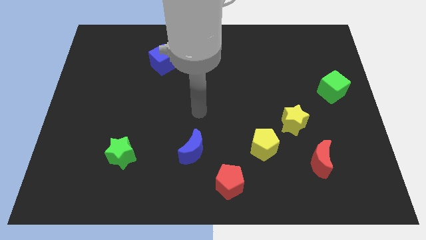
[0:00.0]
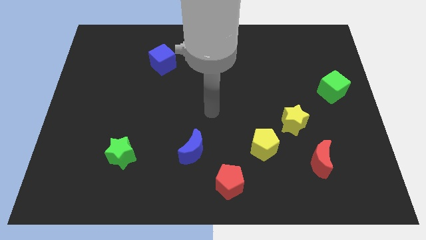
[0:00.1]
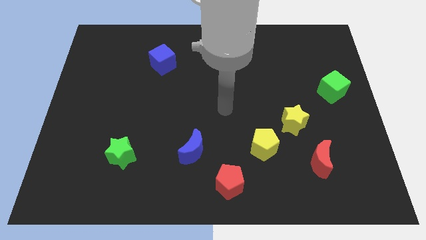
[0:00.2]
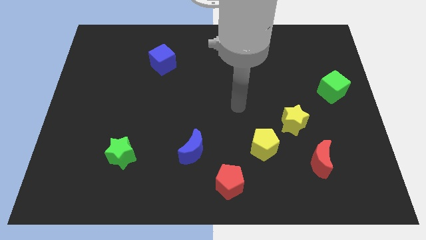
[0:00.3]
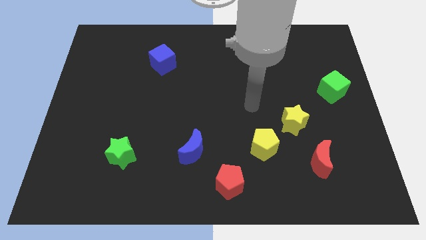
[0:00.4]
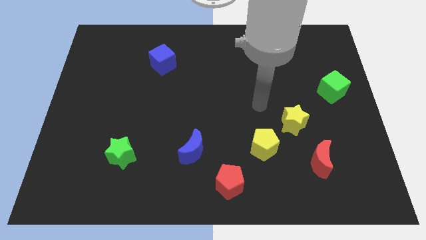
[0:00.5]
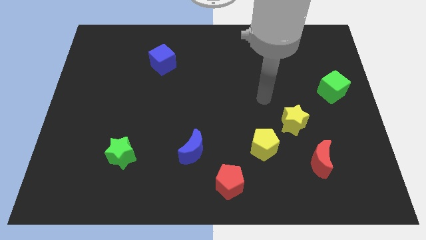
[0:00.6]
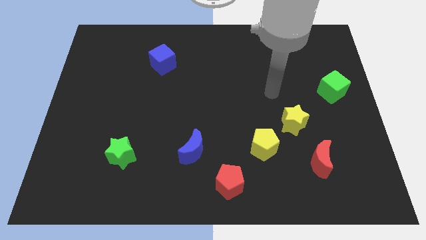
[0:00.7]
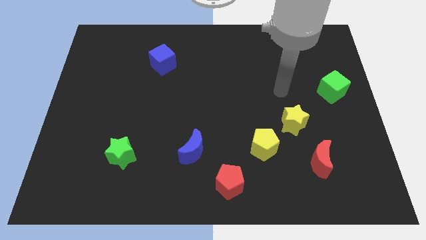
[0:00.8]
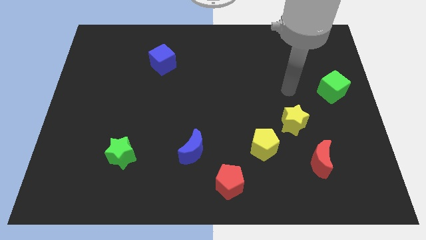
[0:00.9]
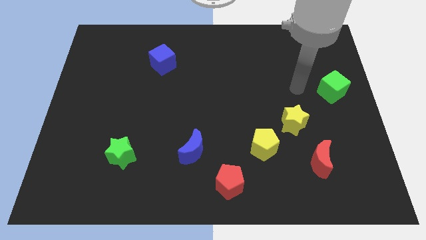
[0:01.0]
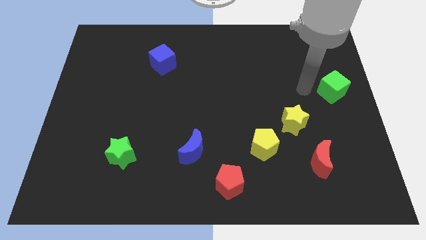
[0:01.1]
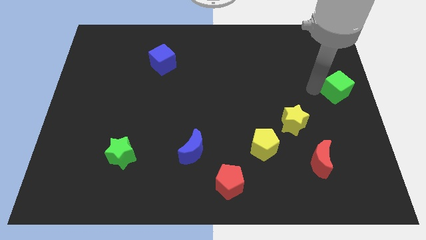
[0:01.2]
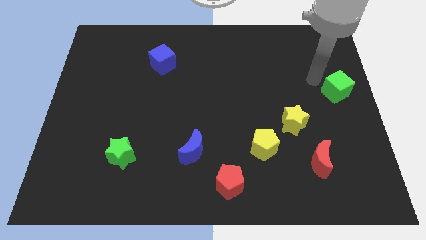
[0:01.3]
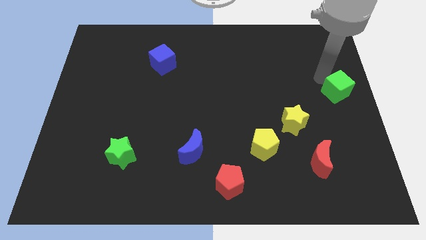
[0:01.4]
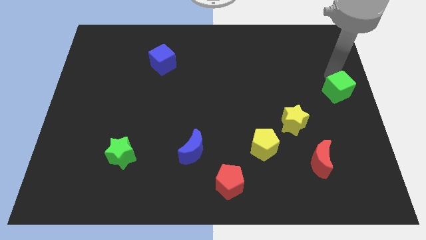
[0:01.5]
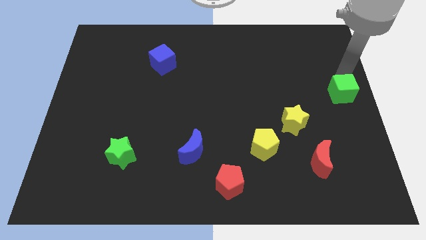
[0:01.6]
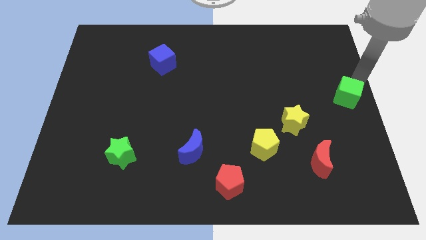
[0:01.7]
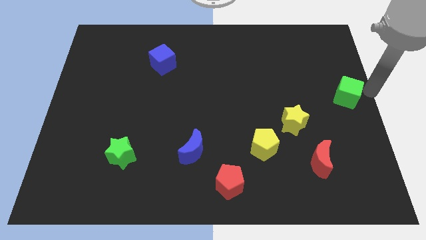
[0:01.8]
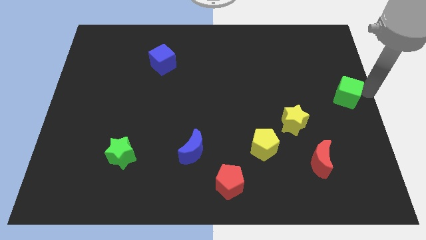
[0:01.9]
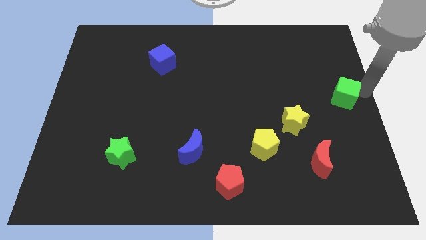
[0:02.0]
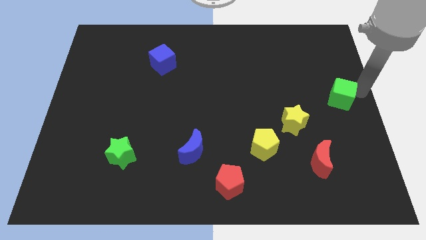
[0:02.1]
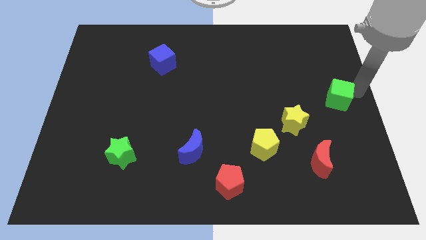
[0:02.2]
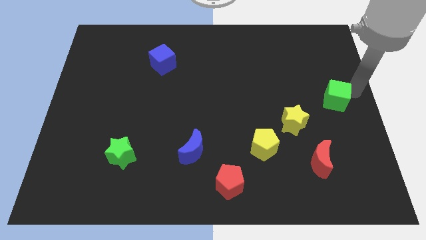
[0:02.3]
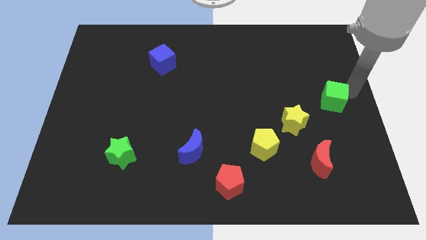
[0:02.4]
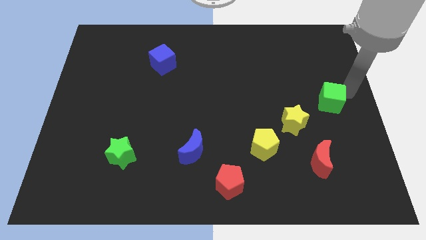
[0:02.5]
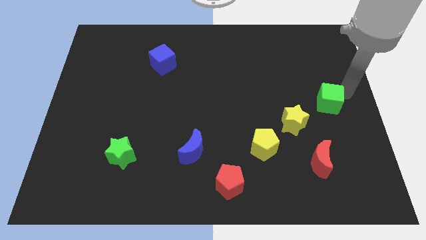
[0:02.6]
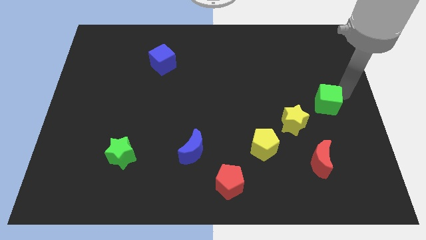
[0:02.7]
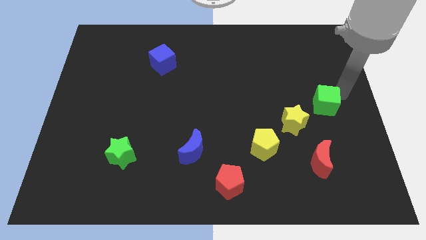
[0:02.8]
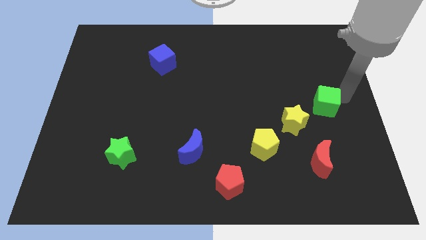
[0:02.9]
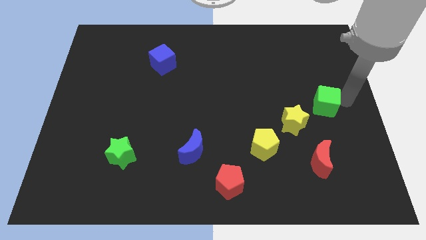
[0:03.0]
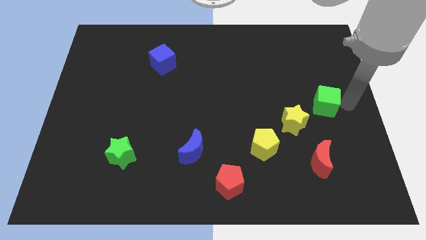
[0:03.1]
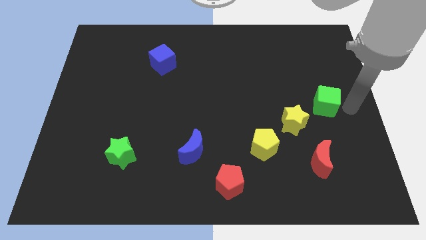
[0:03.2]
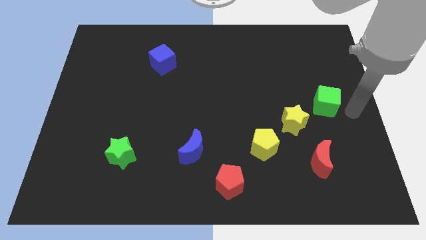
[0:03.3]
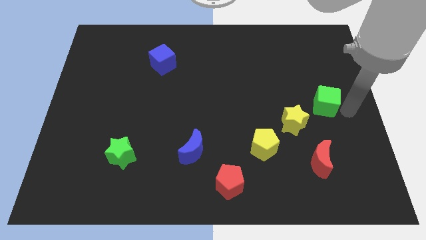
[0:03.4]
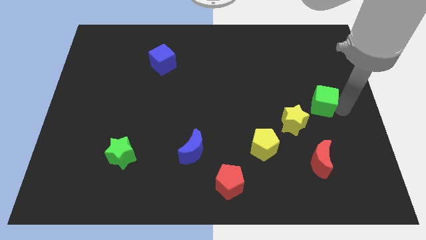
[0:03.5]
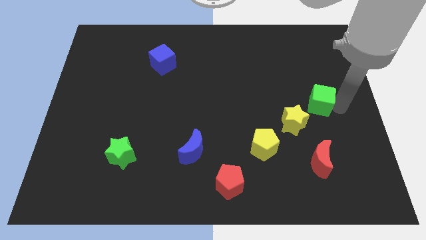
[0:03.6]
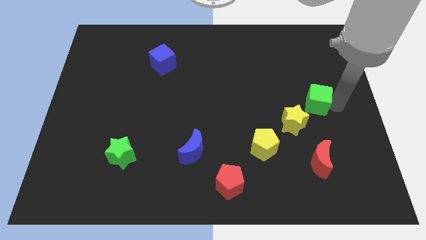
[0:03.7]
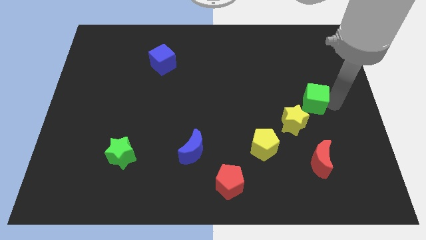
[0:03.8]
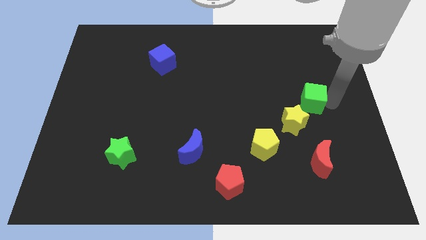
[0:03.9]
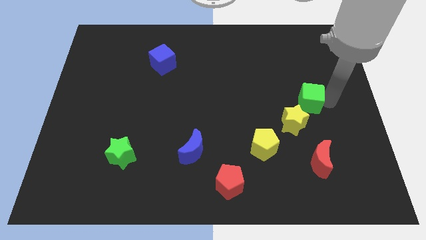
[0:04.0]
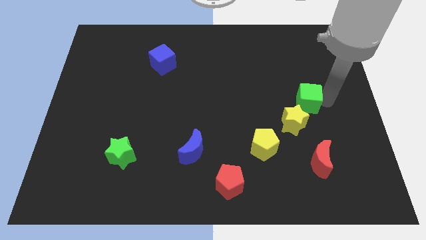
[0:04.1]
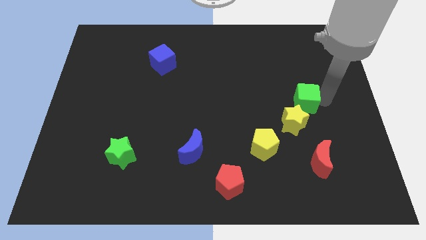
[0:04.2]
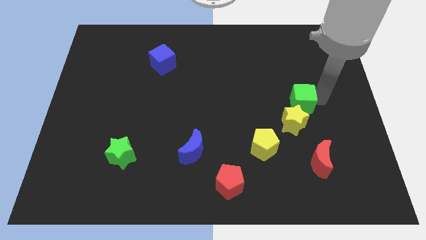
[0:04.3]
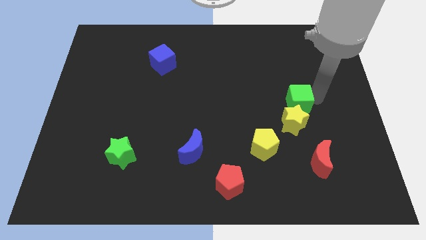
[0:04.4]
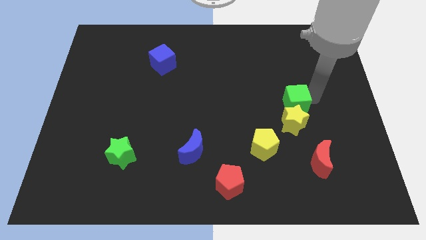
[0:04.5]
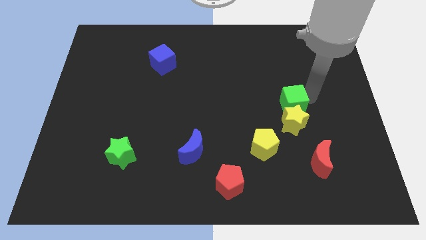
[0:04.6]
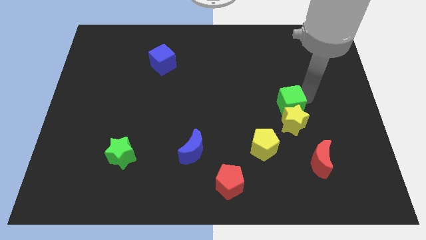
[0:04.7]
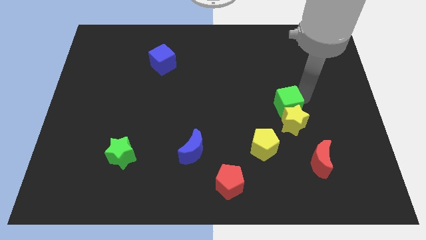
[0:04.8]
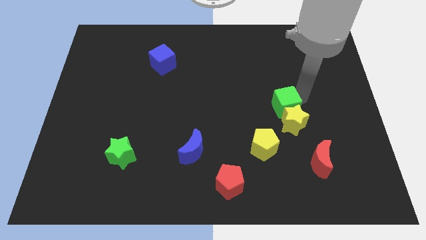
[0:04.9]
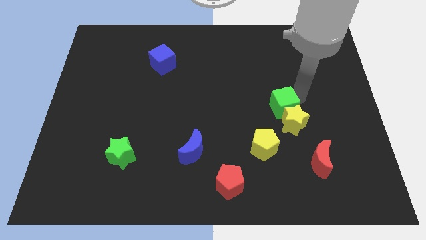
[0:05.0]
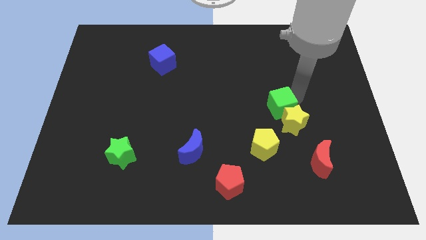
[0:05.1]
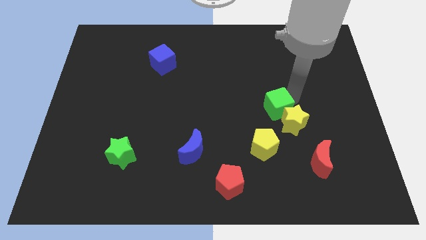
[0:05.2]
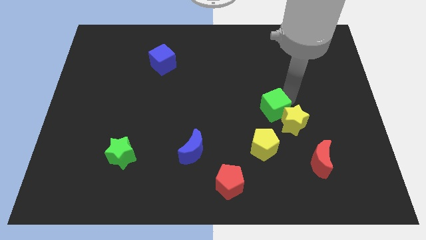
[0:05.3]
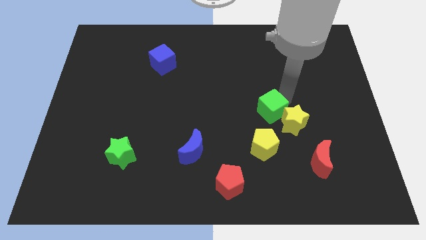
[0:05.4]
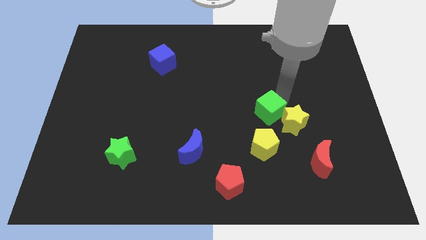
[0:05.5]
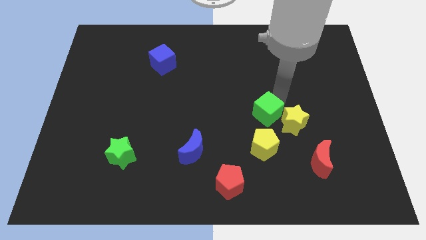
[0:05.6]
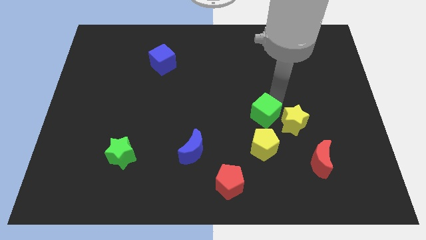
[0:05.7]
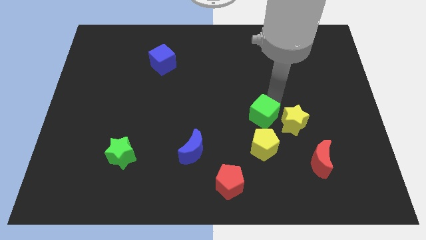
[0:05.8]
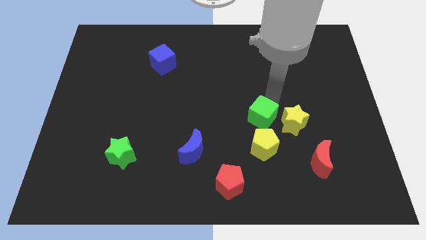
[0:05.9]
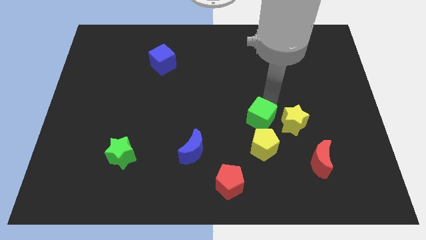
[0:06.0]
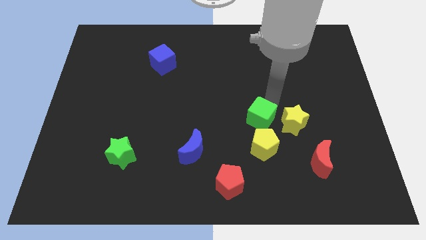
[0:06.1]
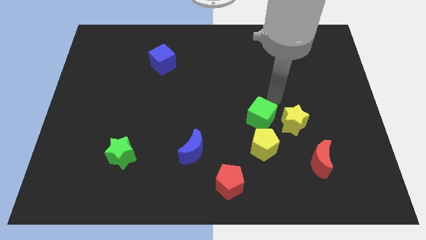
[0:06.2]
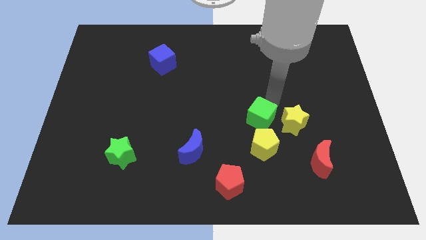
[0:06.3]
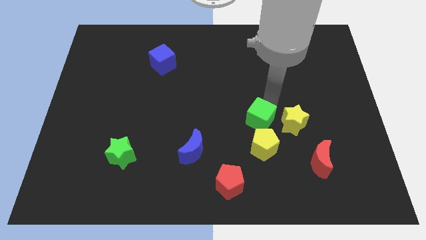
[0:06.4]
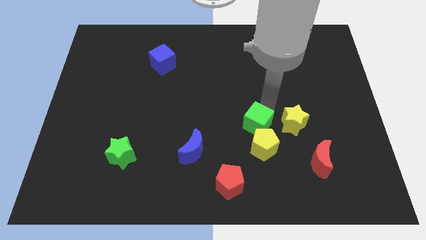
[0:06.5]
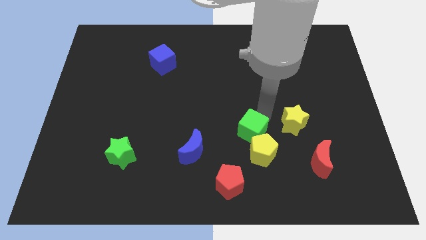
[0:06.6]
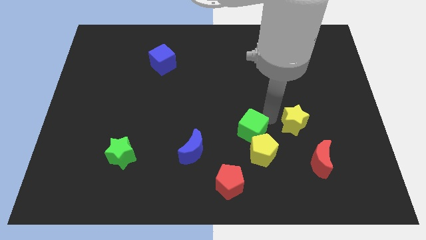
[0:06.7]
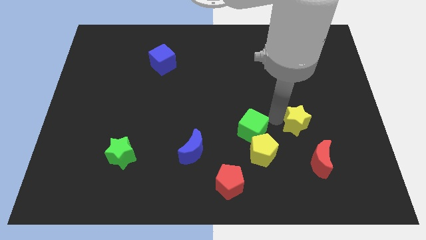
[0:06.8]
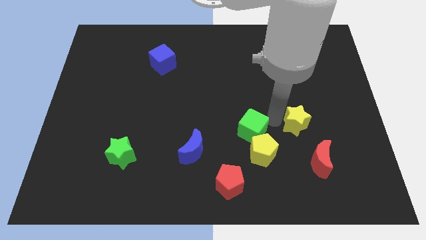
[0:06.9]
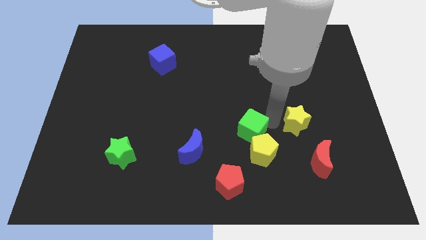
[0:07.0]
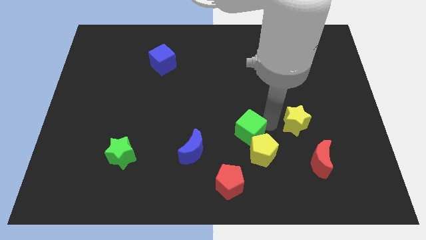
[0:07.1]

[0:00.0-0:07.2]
put the green cube to the top of the red pentagon
